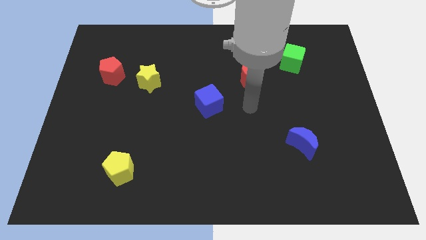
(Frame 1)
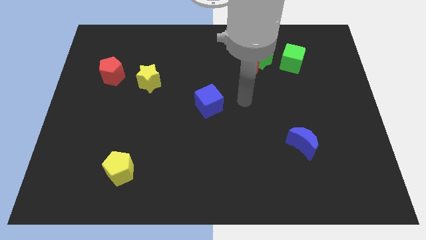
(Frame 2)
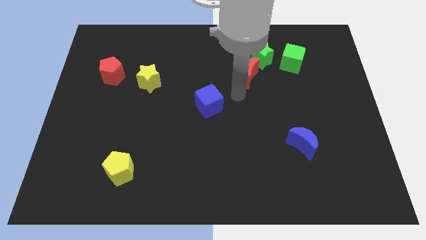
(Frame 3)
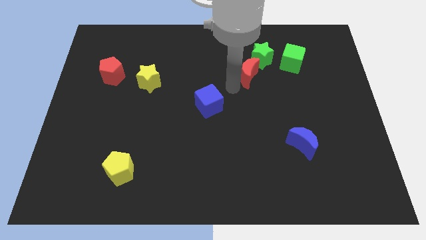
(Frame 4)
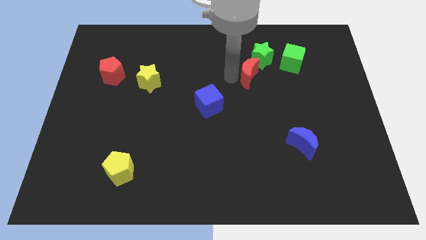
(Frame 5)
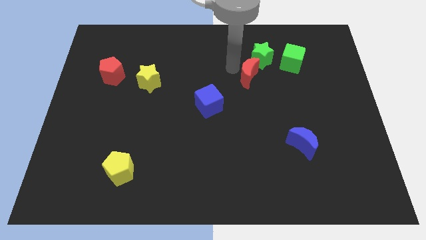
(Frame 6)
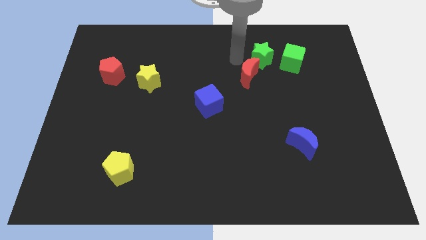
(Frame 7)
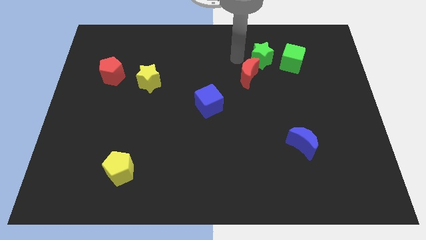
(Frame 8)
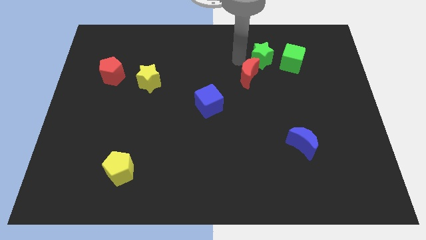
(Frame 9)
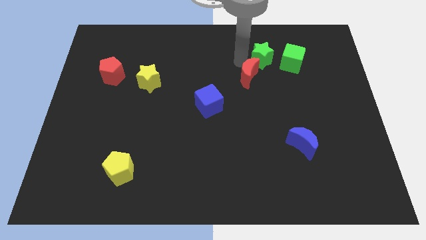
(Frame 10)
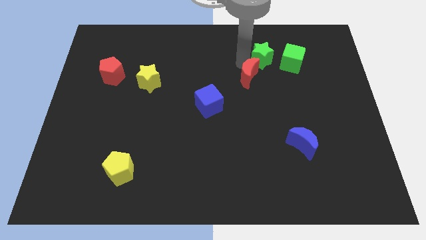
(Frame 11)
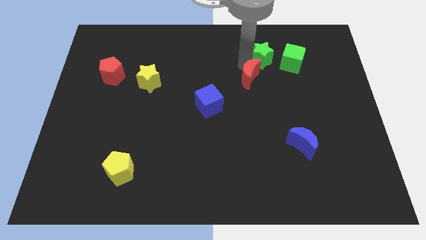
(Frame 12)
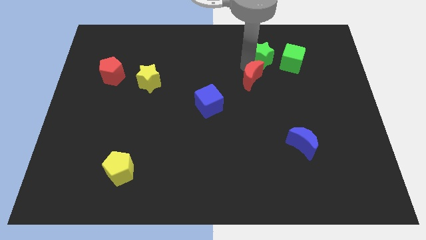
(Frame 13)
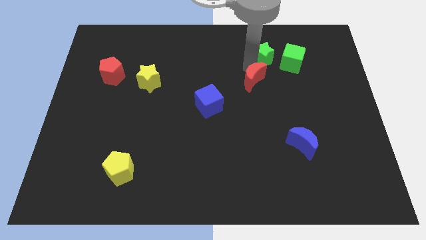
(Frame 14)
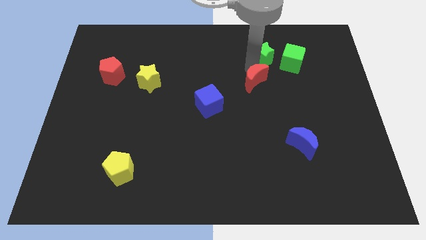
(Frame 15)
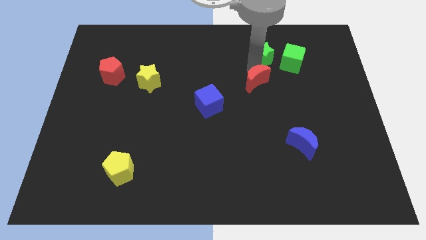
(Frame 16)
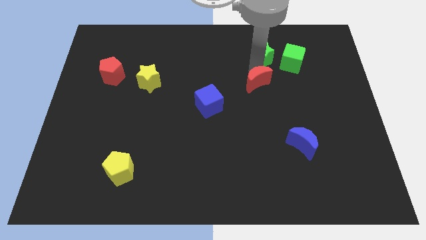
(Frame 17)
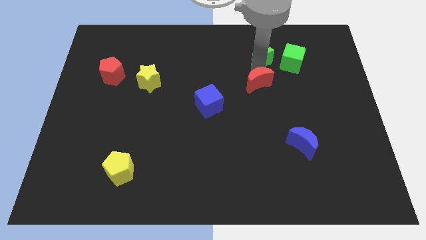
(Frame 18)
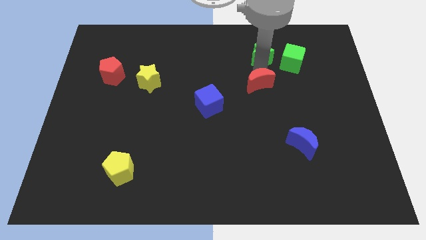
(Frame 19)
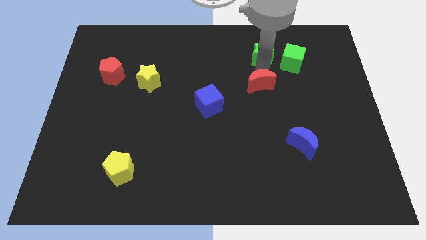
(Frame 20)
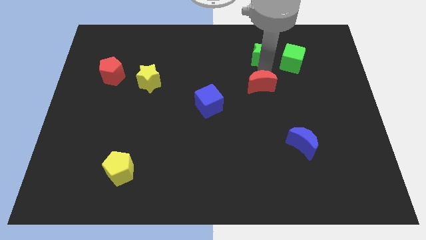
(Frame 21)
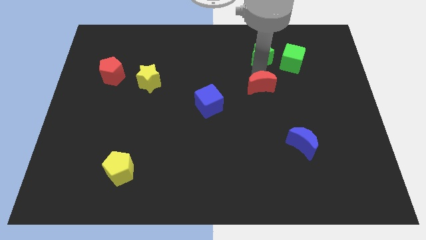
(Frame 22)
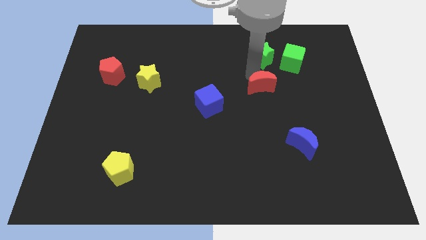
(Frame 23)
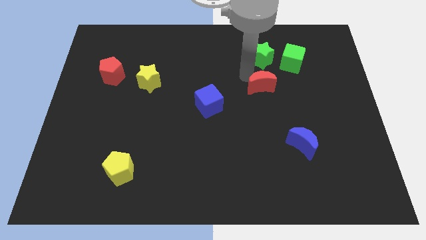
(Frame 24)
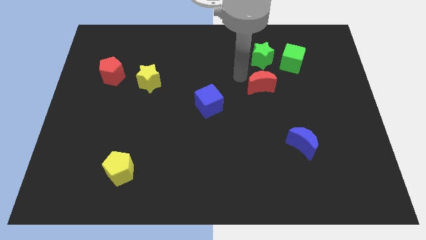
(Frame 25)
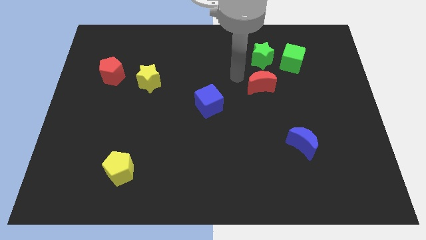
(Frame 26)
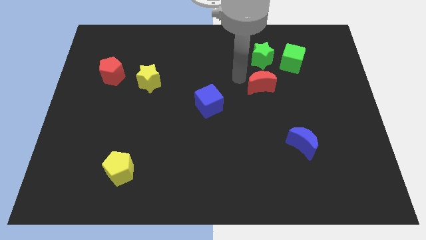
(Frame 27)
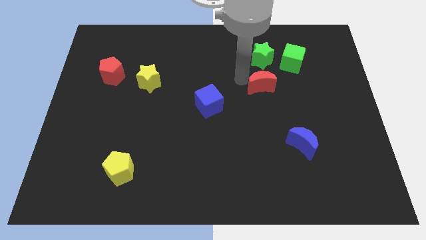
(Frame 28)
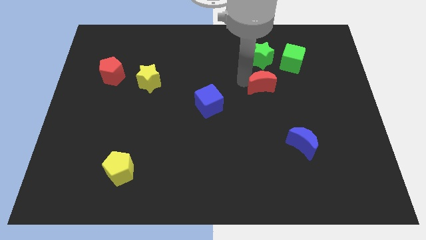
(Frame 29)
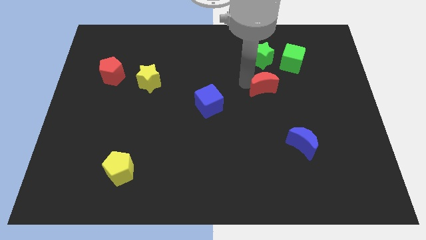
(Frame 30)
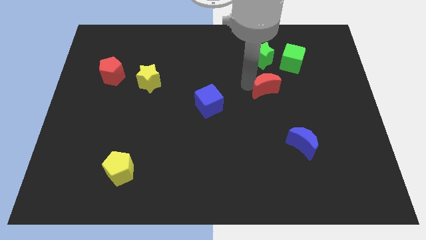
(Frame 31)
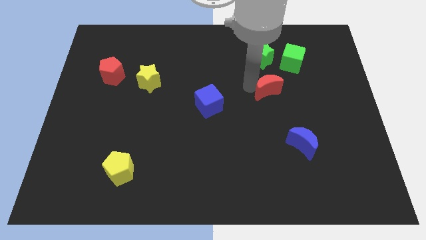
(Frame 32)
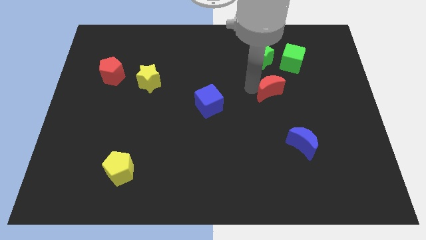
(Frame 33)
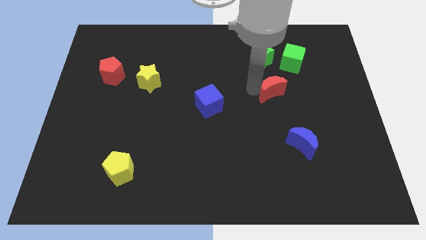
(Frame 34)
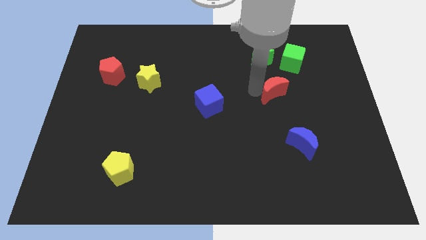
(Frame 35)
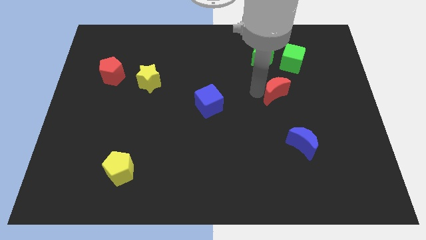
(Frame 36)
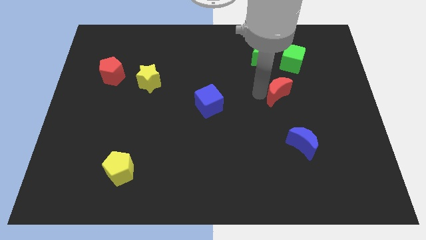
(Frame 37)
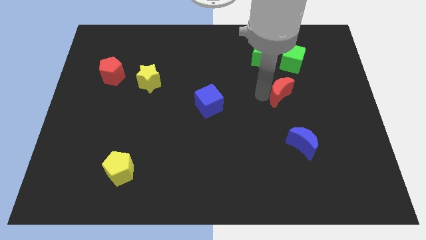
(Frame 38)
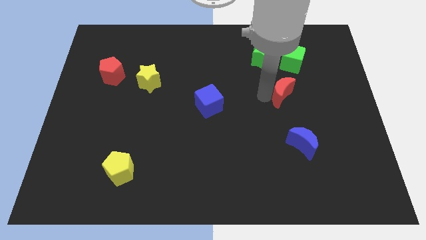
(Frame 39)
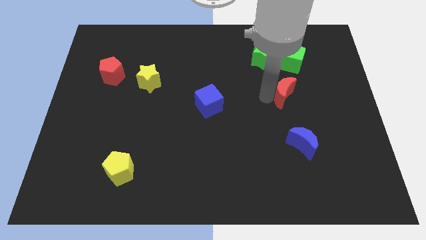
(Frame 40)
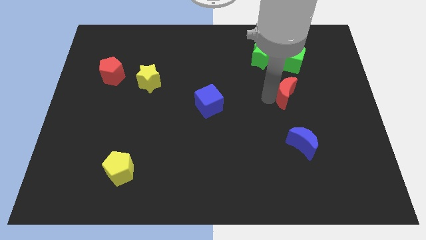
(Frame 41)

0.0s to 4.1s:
push the red moon to the right a little bit

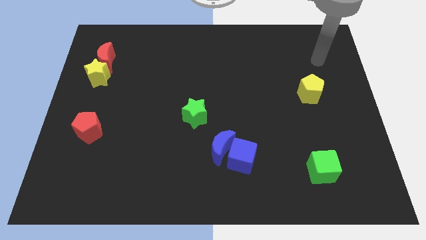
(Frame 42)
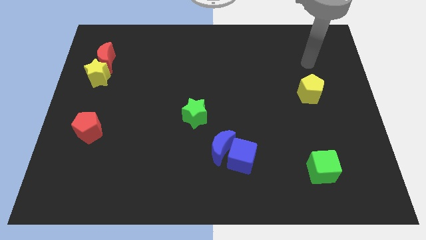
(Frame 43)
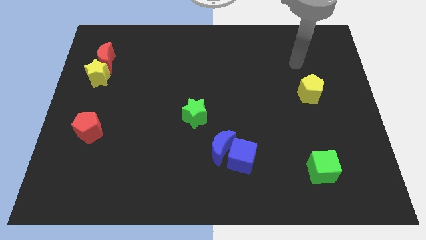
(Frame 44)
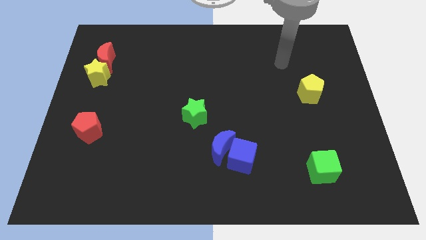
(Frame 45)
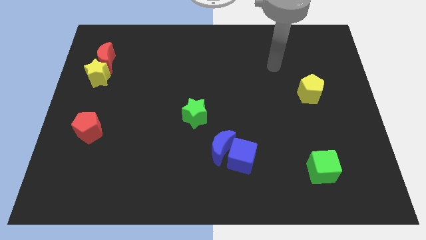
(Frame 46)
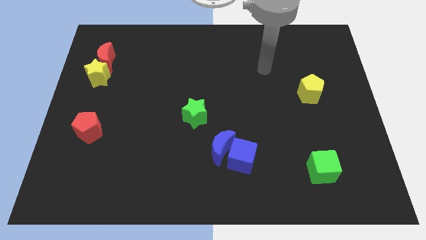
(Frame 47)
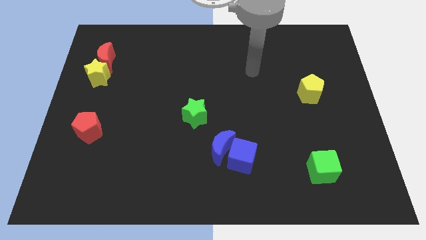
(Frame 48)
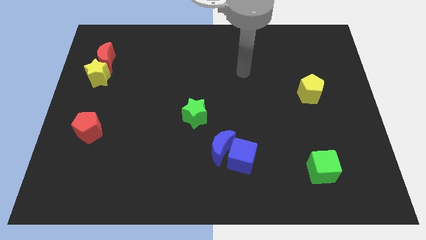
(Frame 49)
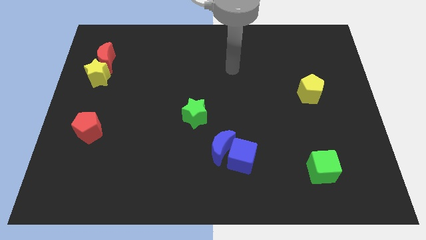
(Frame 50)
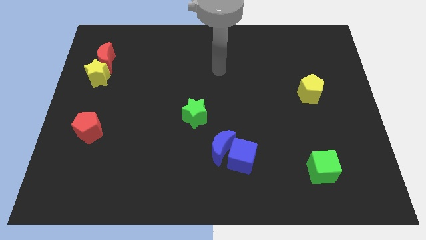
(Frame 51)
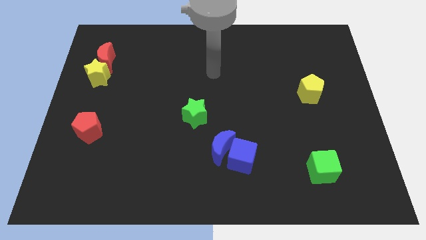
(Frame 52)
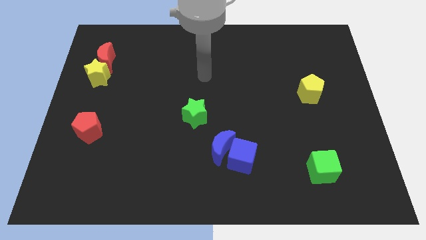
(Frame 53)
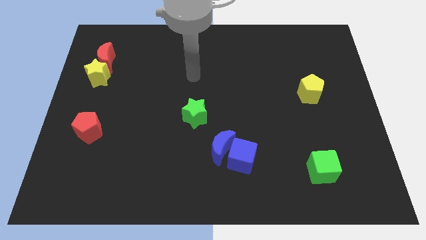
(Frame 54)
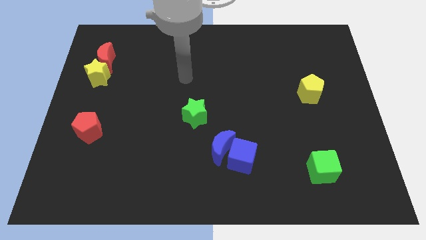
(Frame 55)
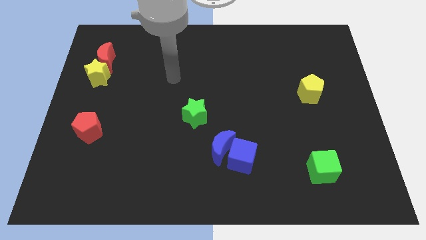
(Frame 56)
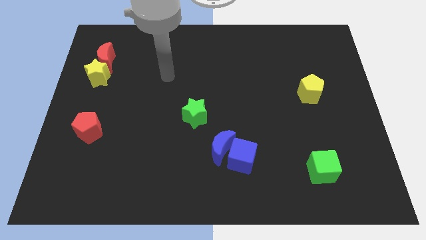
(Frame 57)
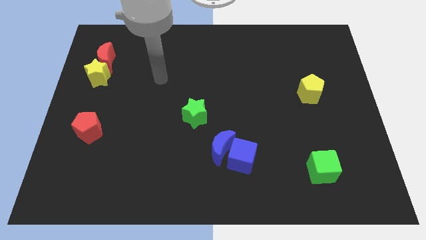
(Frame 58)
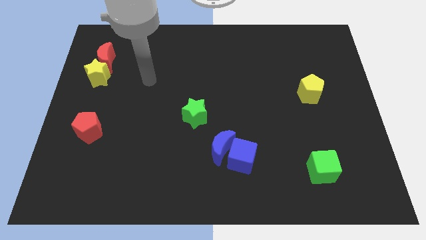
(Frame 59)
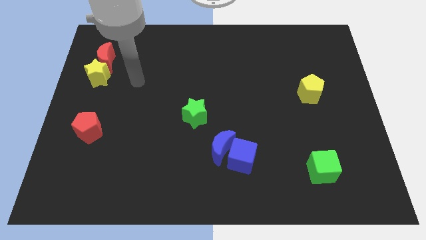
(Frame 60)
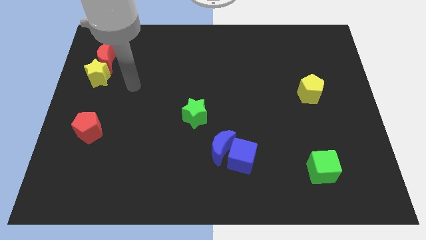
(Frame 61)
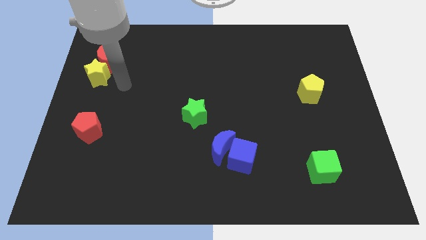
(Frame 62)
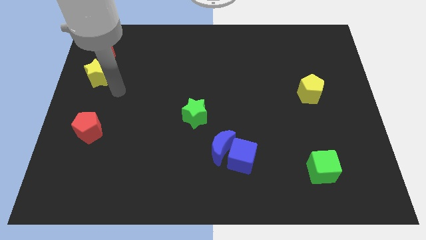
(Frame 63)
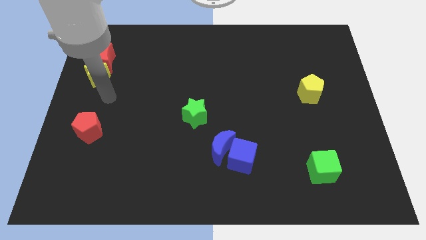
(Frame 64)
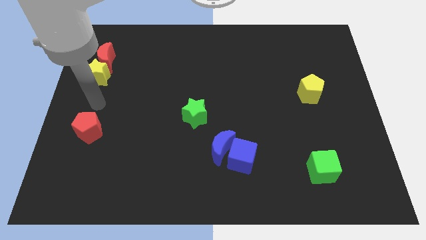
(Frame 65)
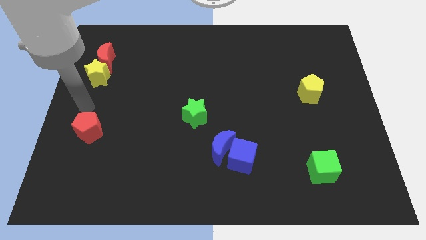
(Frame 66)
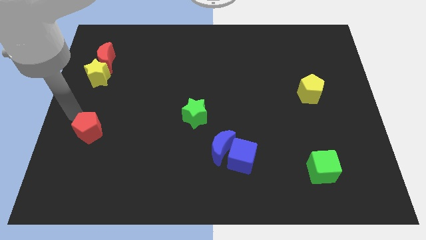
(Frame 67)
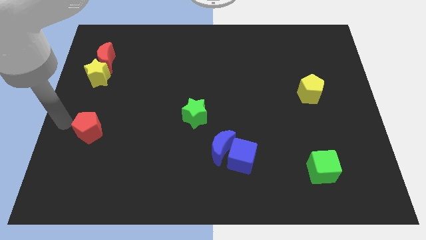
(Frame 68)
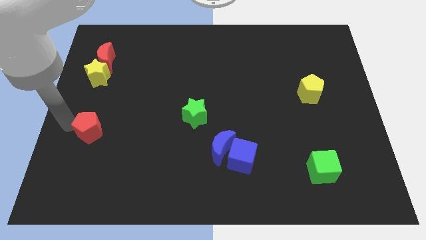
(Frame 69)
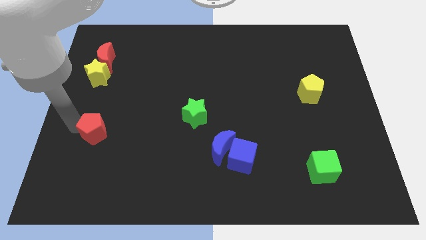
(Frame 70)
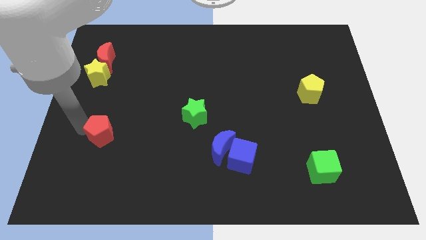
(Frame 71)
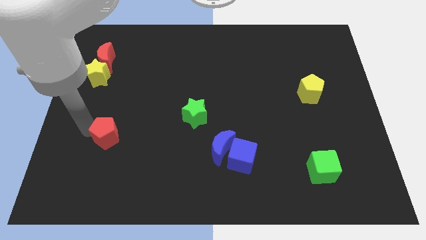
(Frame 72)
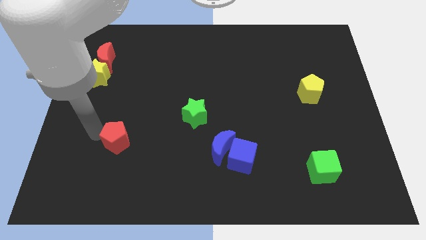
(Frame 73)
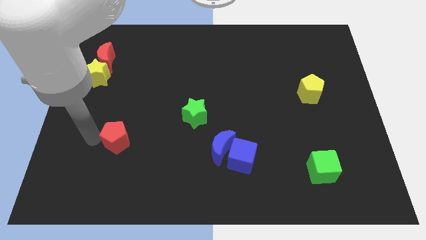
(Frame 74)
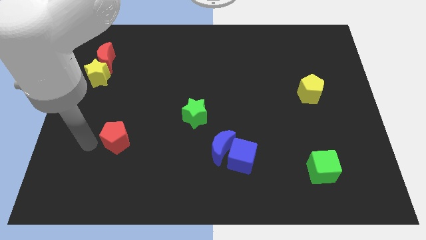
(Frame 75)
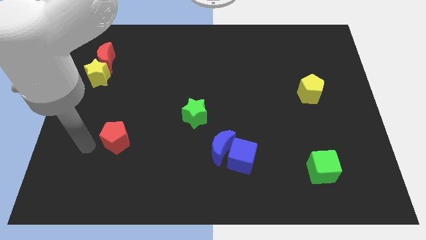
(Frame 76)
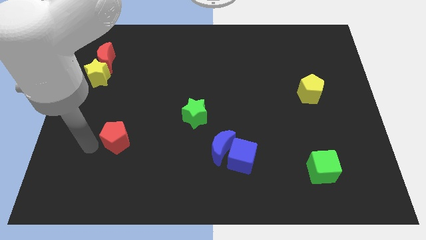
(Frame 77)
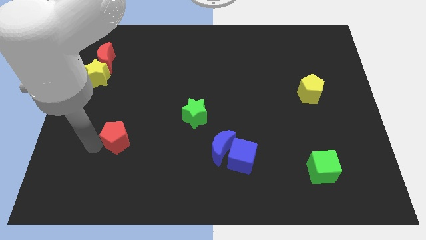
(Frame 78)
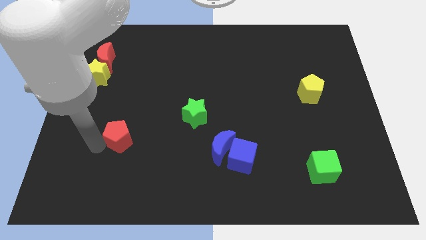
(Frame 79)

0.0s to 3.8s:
slightly move the red pentagon to the right
